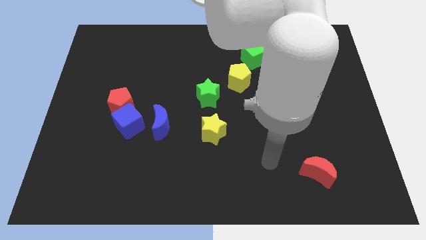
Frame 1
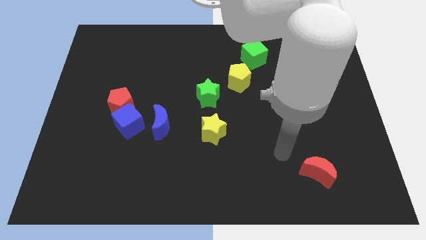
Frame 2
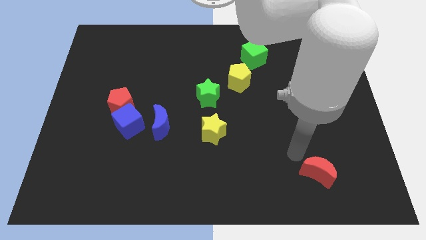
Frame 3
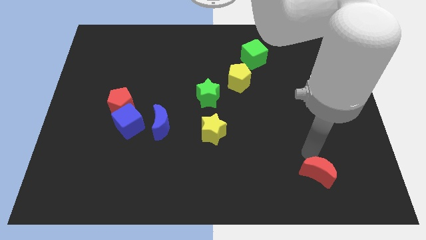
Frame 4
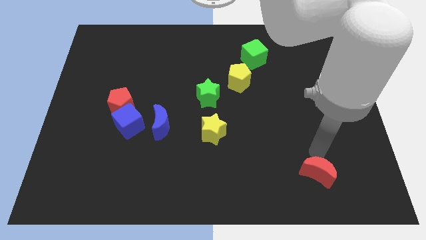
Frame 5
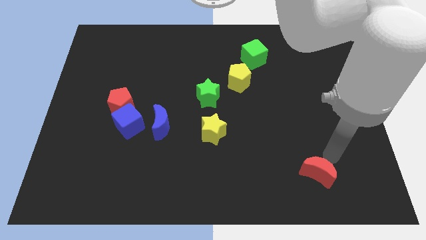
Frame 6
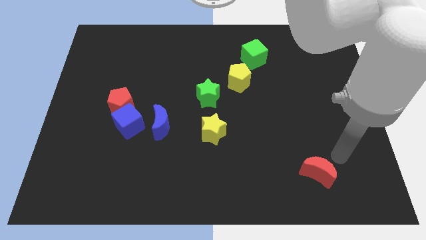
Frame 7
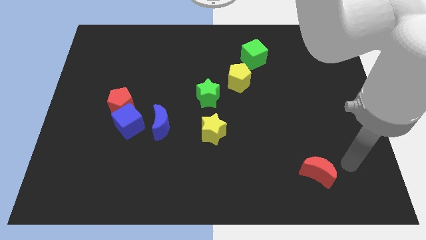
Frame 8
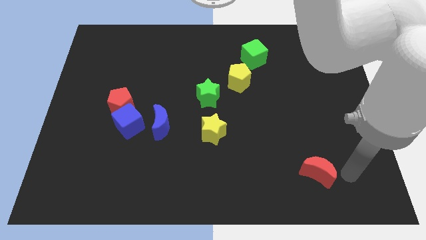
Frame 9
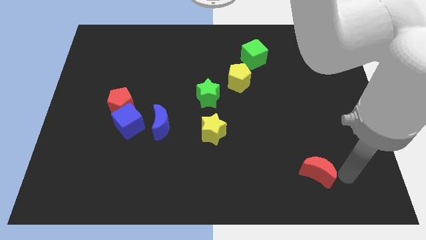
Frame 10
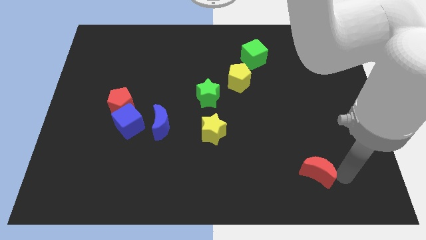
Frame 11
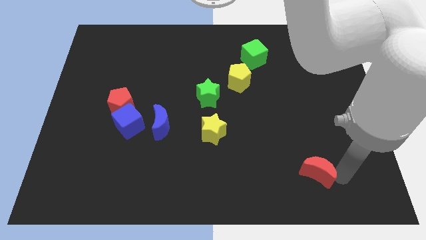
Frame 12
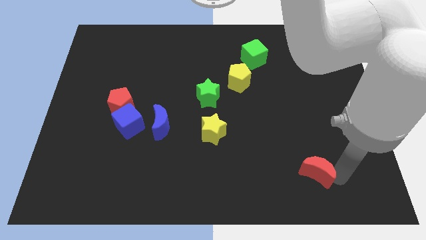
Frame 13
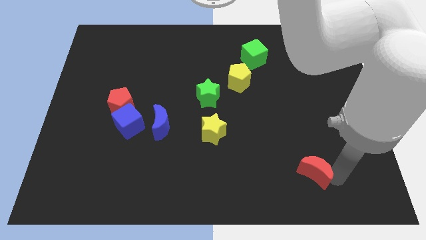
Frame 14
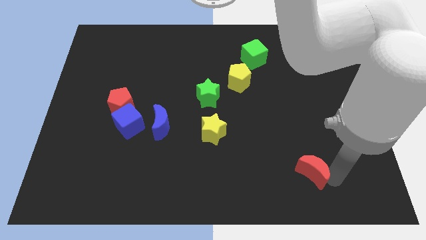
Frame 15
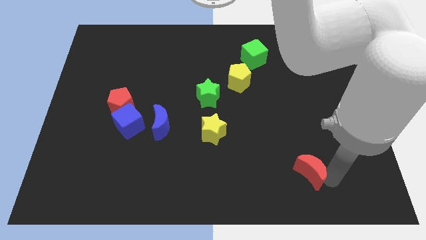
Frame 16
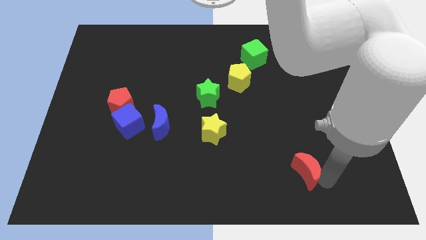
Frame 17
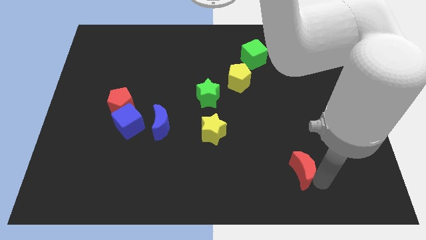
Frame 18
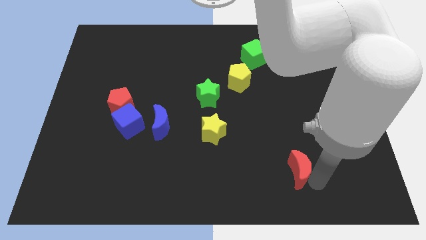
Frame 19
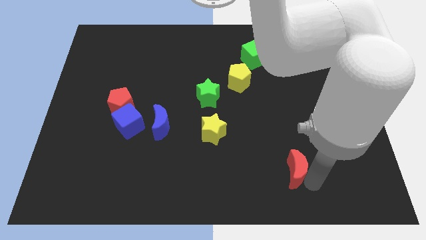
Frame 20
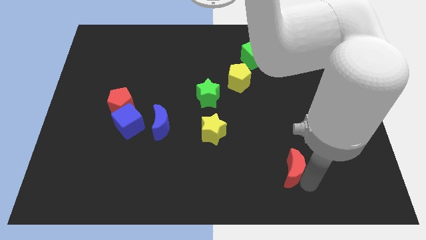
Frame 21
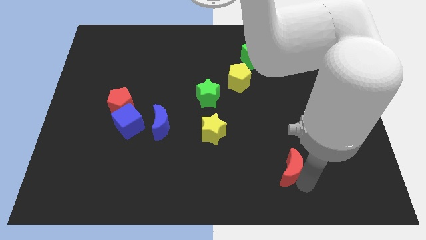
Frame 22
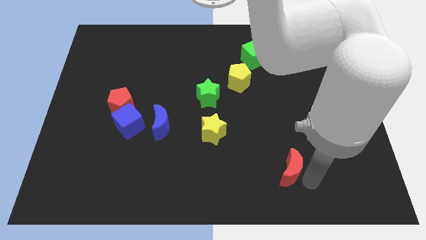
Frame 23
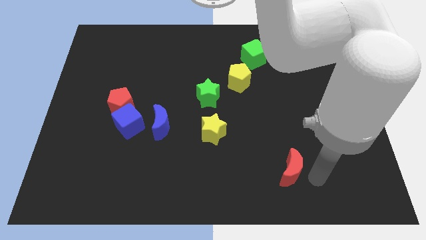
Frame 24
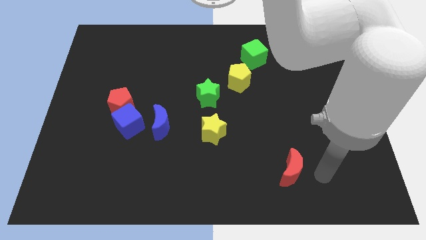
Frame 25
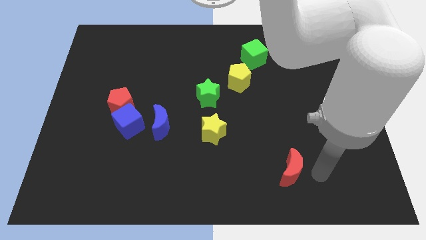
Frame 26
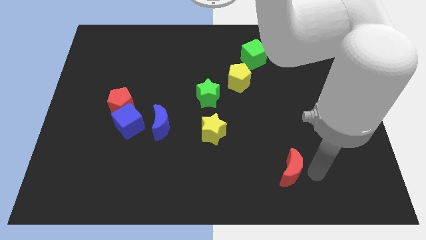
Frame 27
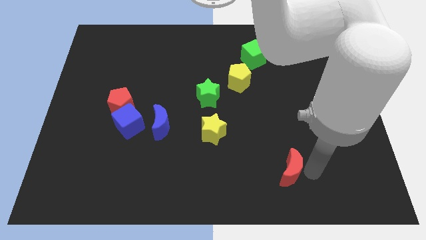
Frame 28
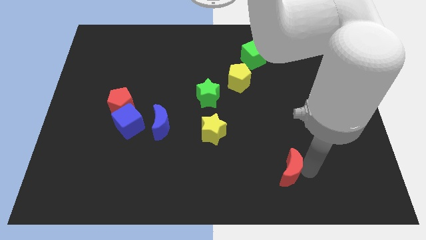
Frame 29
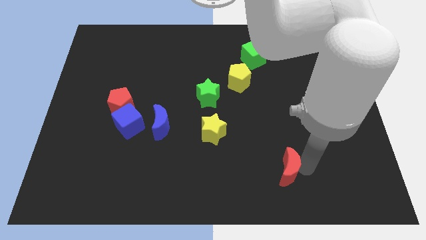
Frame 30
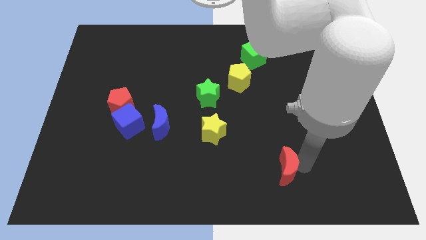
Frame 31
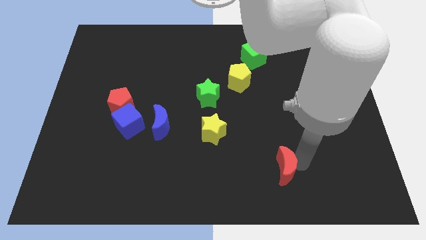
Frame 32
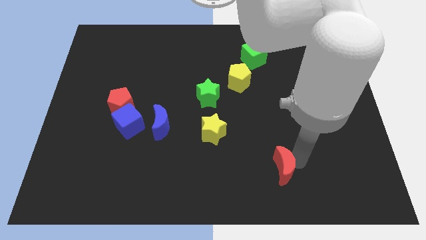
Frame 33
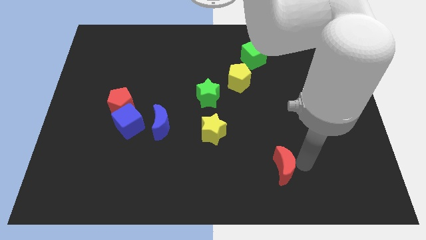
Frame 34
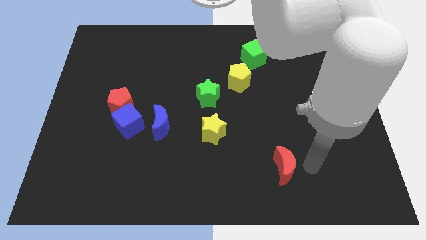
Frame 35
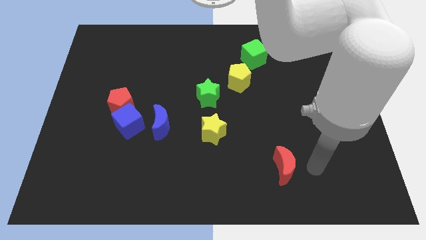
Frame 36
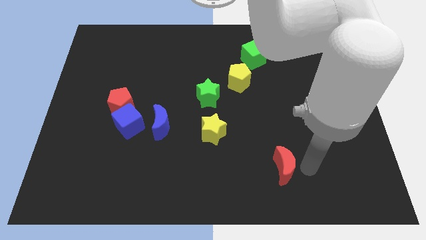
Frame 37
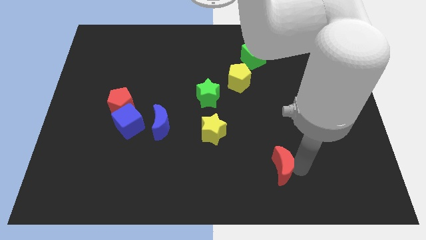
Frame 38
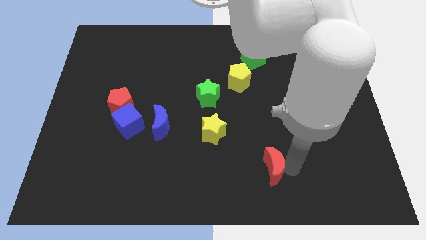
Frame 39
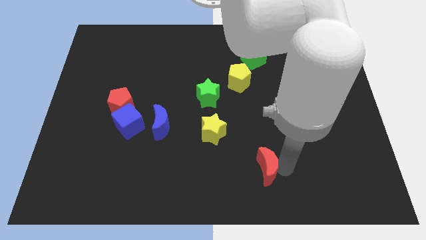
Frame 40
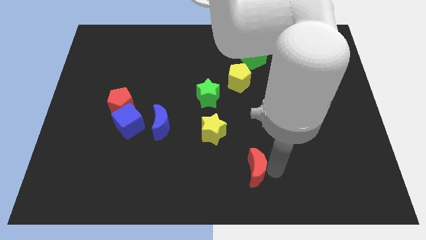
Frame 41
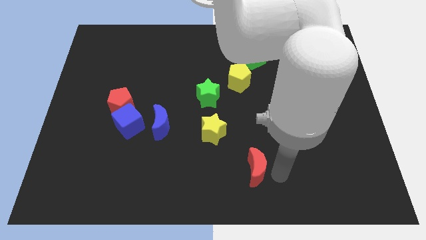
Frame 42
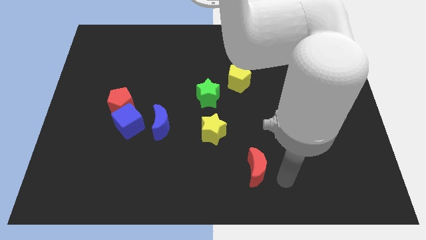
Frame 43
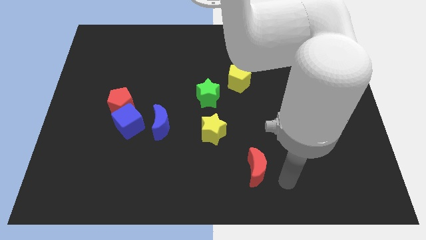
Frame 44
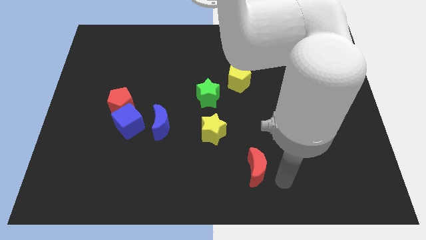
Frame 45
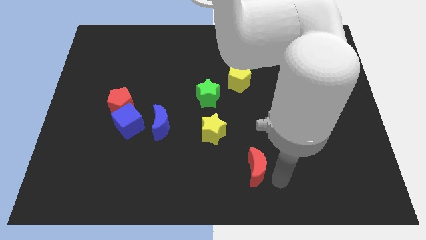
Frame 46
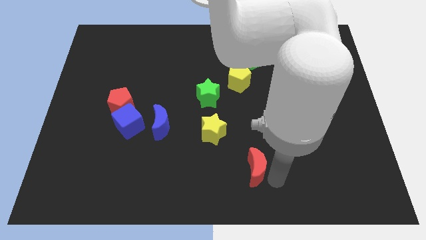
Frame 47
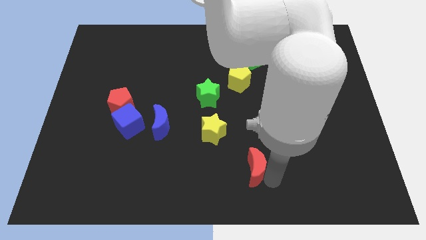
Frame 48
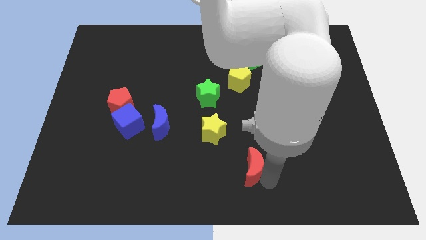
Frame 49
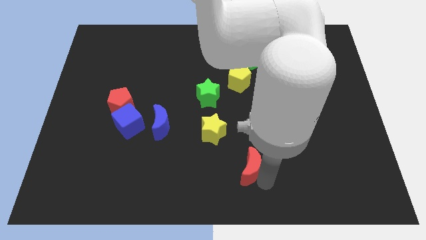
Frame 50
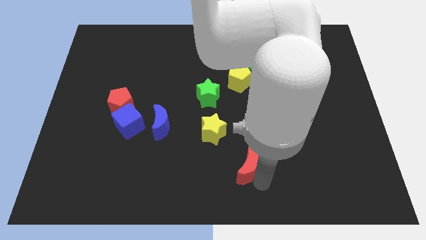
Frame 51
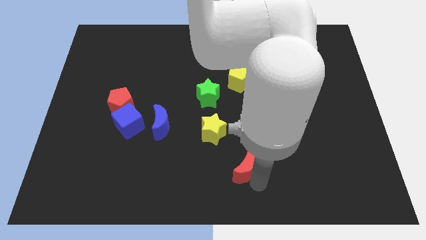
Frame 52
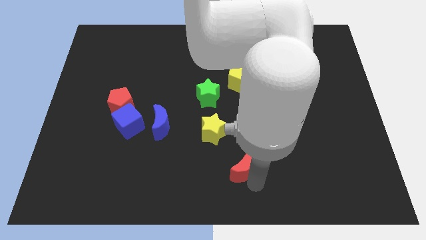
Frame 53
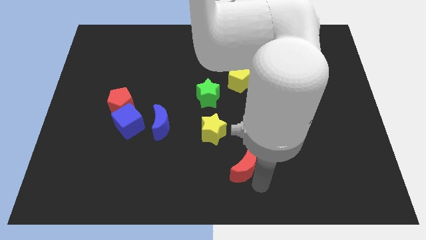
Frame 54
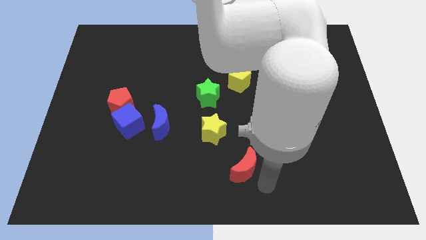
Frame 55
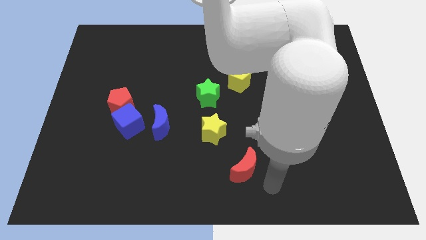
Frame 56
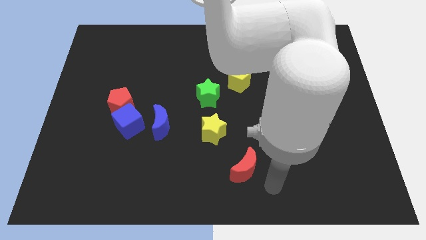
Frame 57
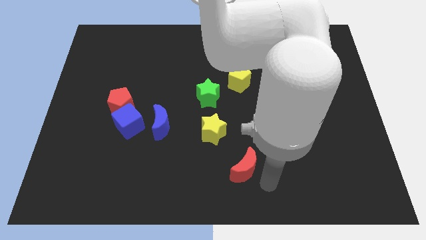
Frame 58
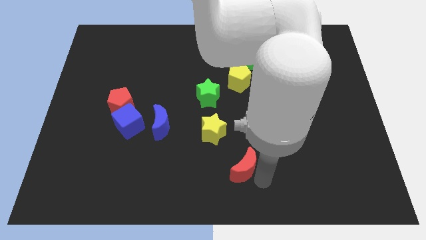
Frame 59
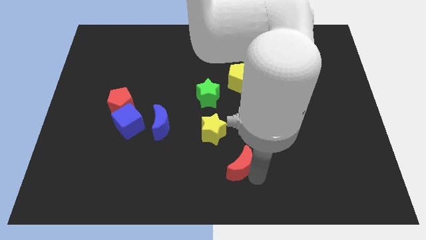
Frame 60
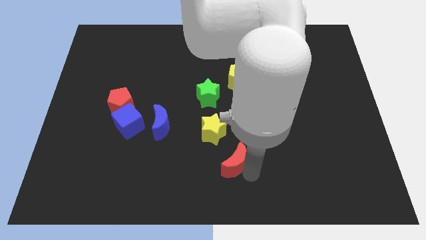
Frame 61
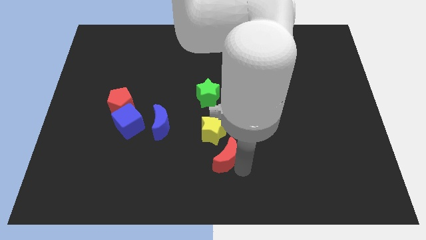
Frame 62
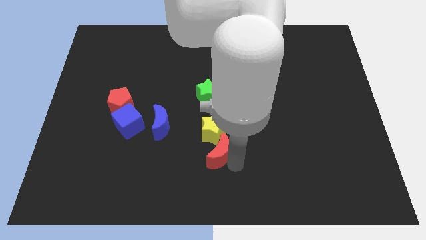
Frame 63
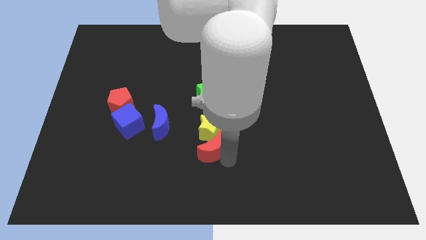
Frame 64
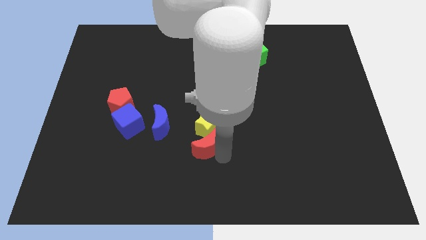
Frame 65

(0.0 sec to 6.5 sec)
push the red moon to the bottom right side of the blue moon
